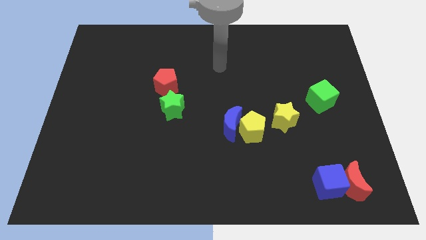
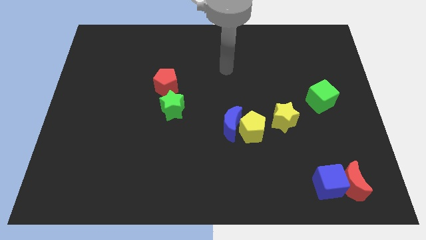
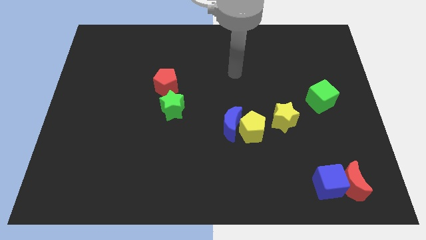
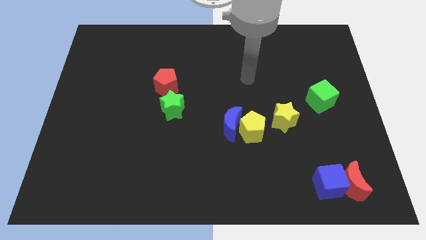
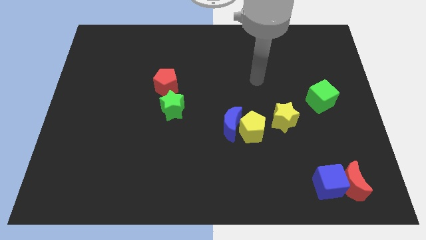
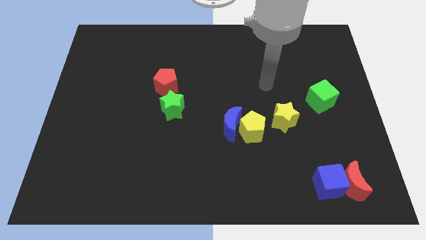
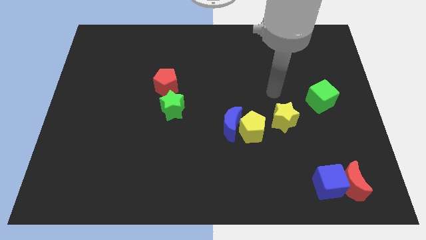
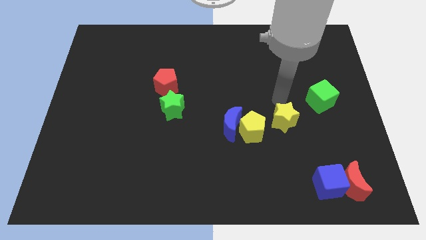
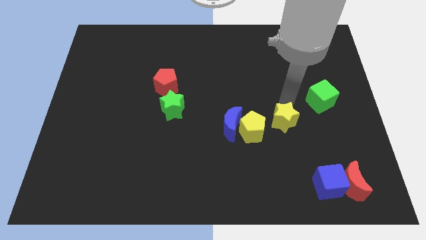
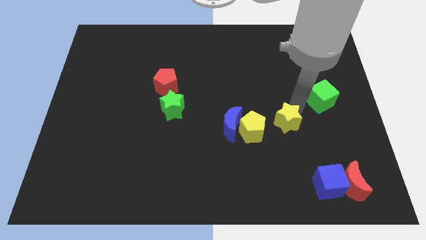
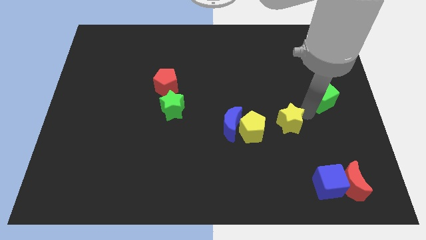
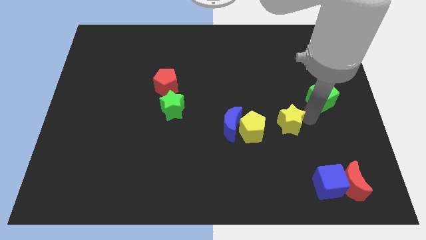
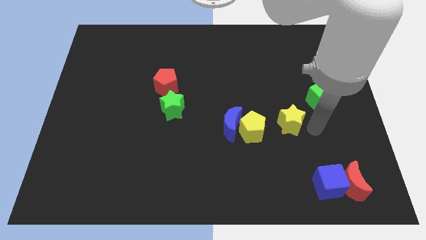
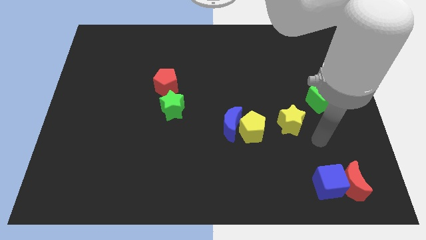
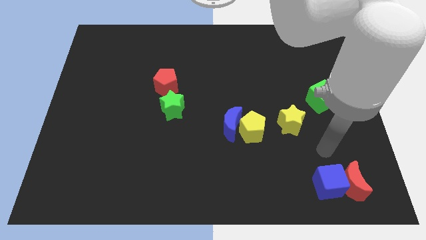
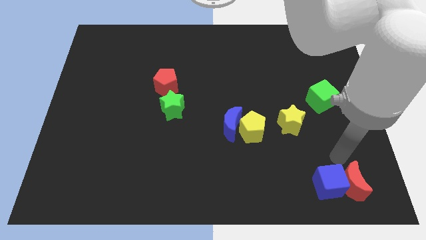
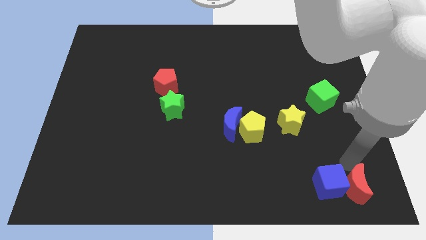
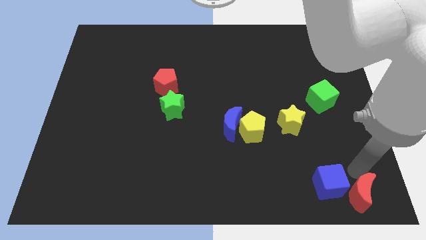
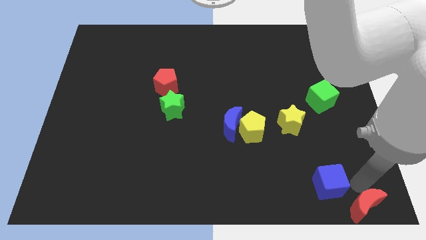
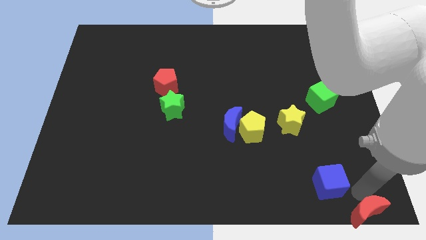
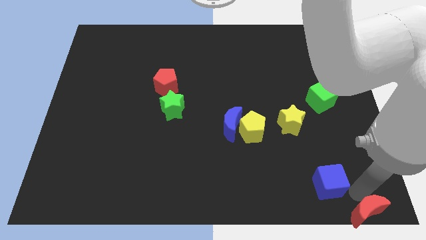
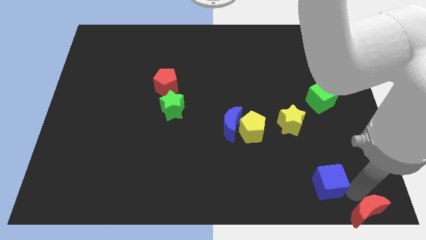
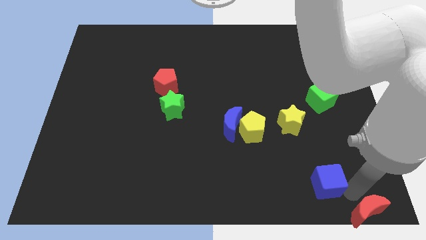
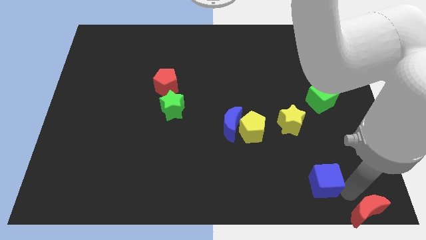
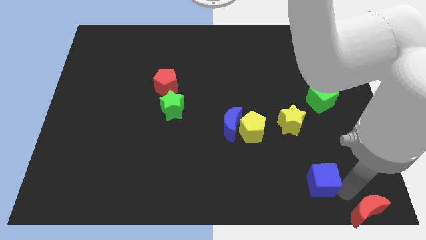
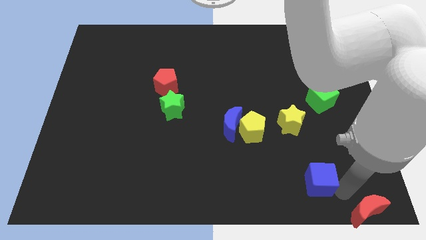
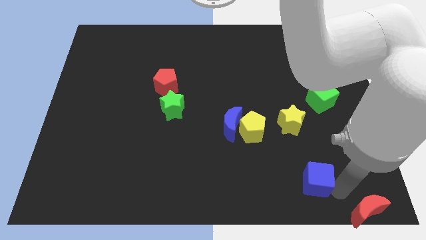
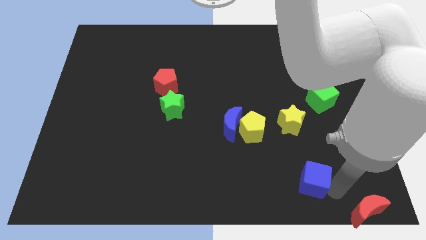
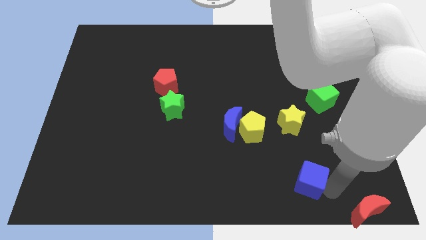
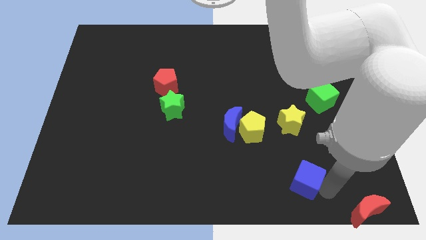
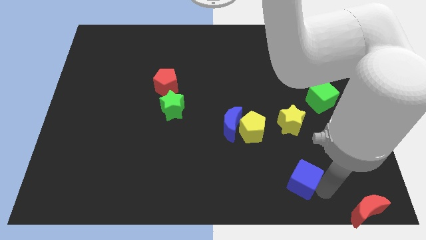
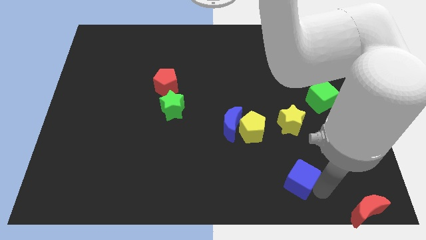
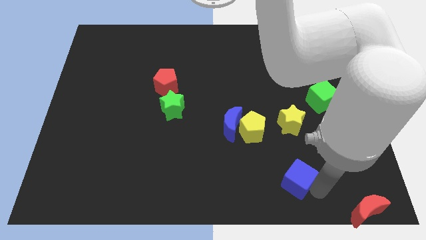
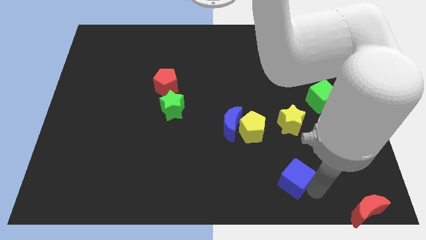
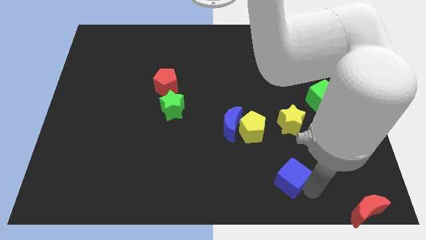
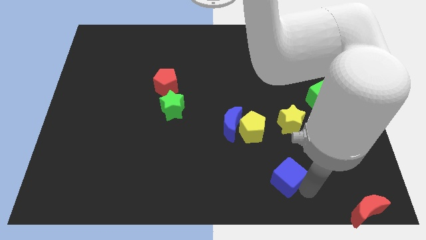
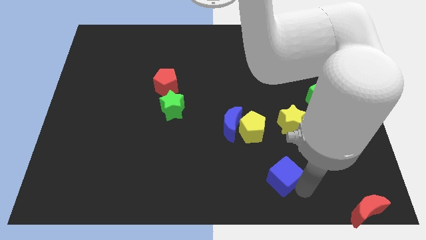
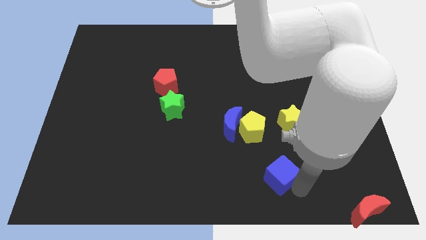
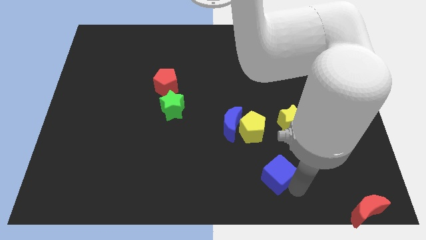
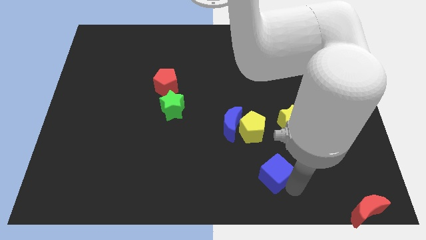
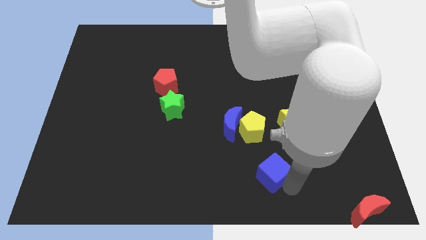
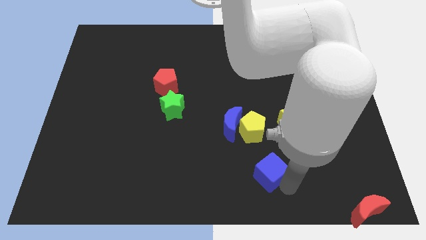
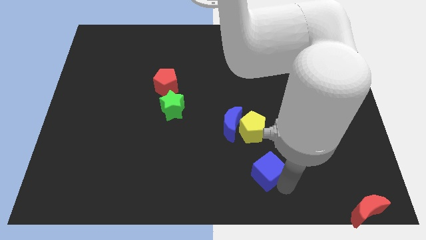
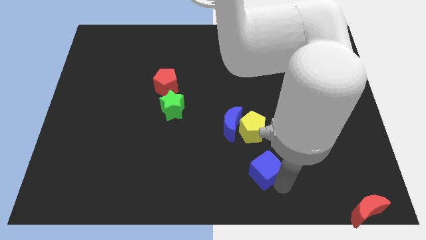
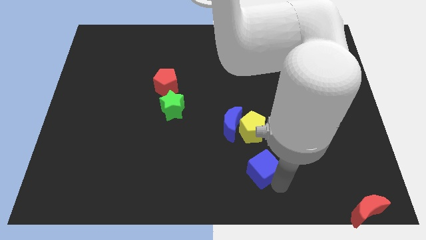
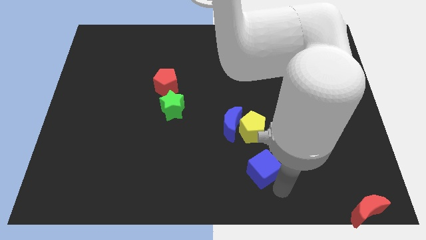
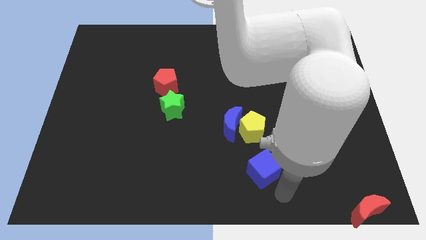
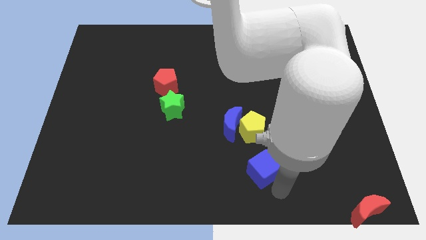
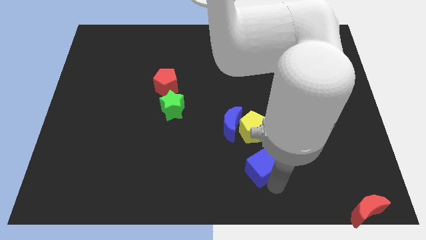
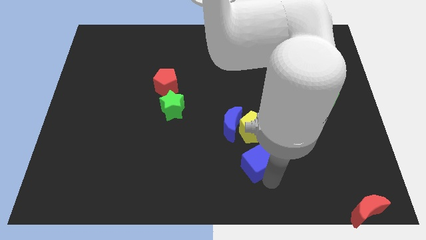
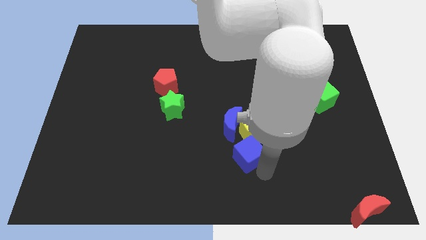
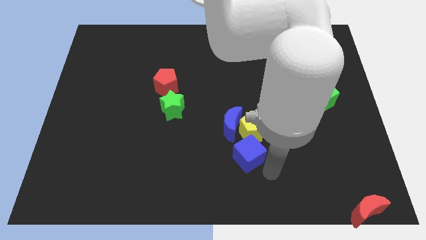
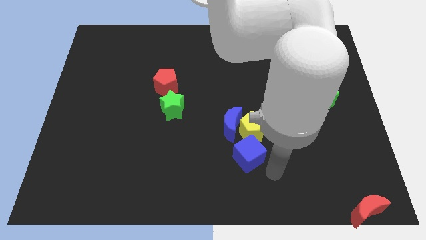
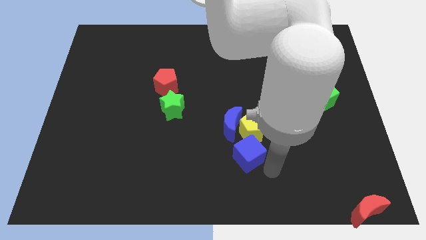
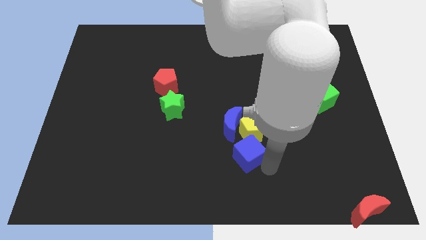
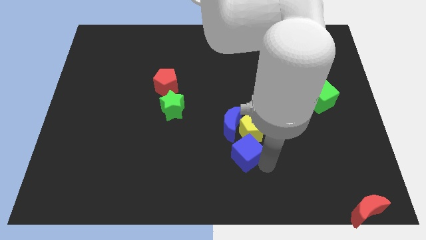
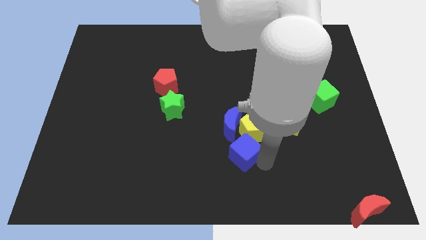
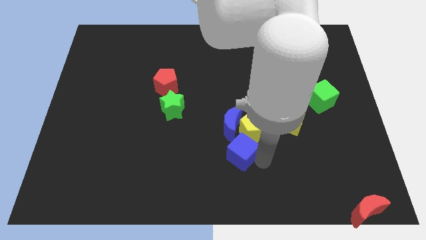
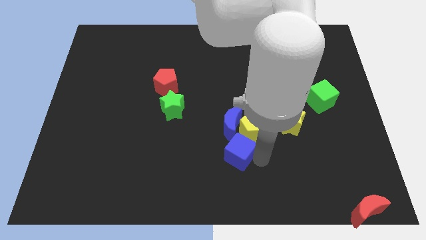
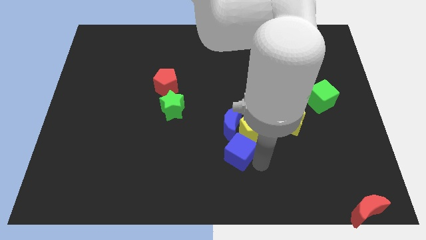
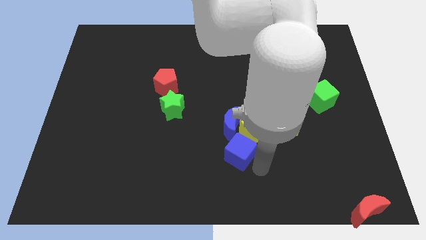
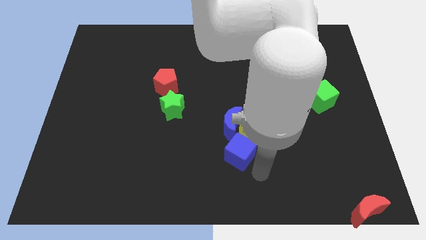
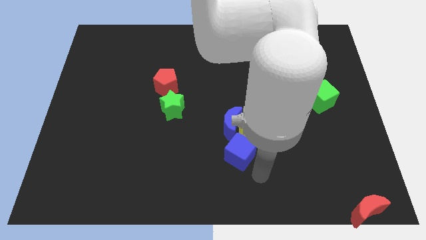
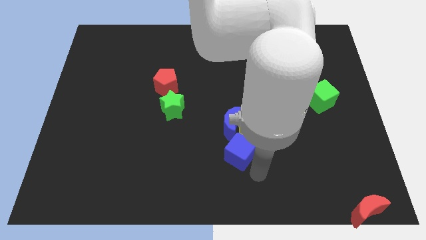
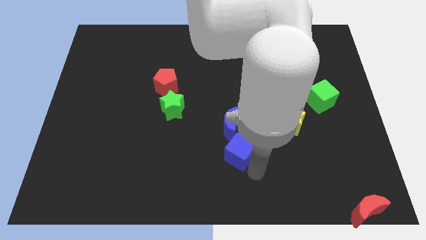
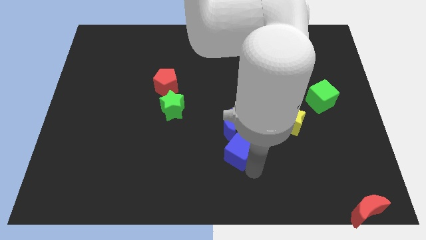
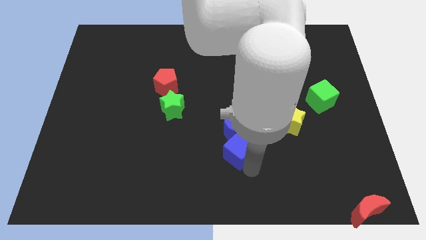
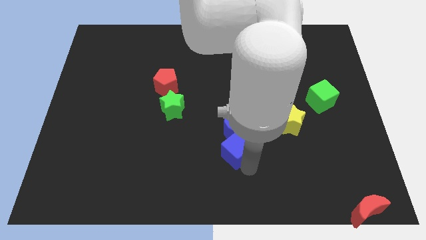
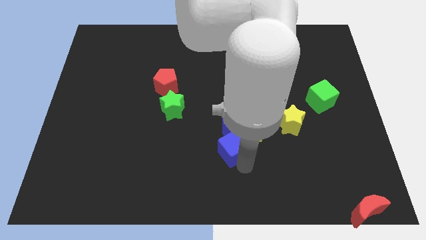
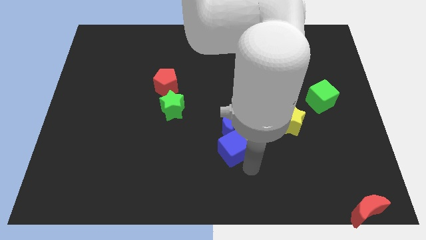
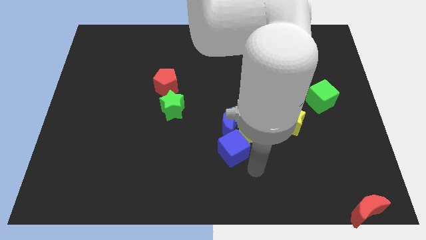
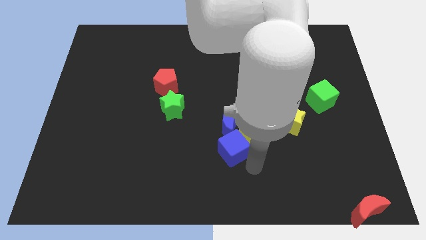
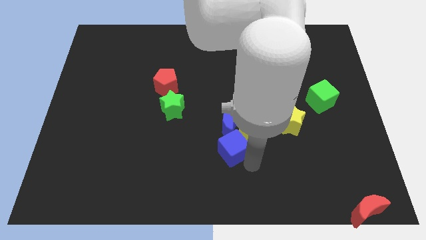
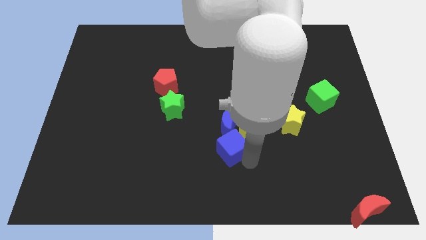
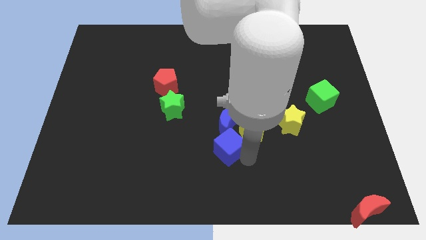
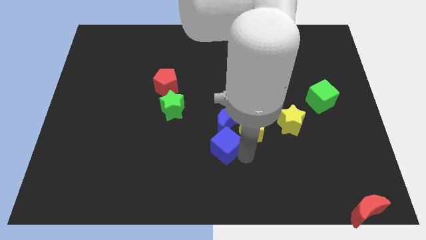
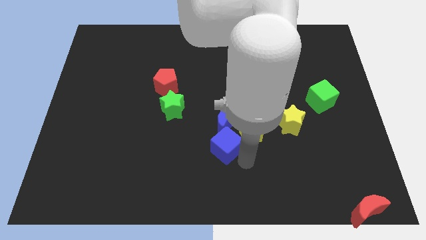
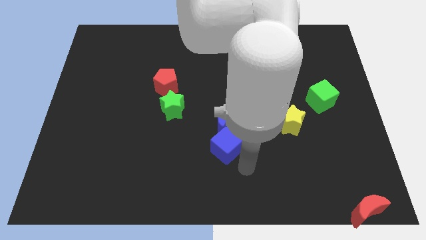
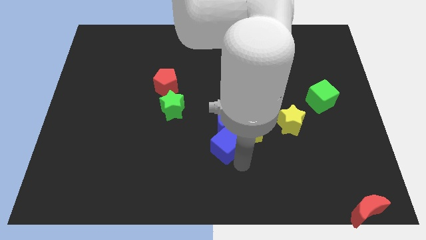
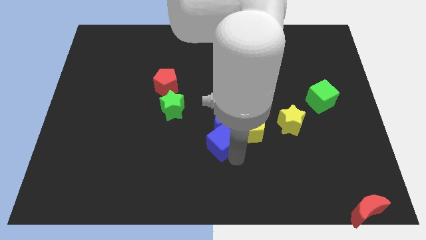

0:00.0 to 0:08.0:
put the blue cube to the middle of the board
